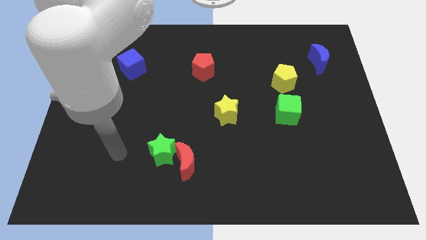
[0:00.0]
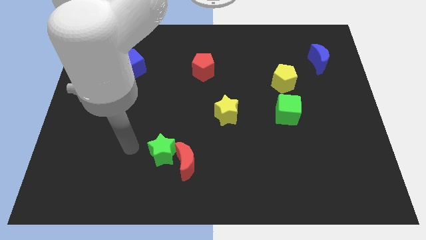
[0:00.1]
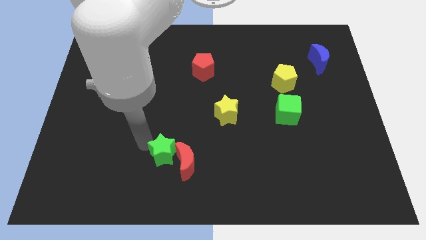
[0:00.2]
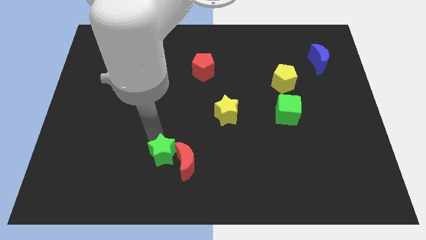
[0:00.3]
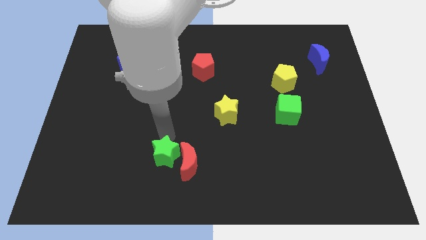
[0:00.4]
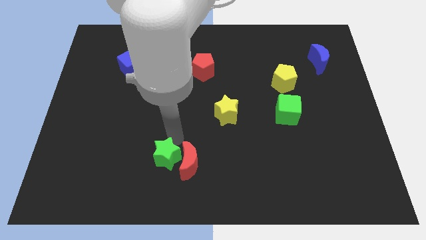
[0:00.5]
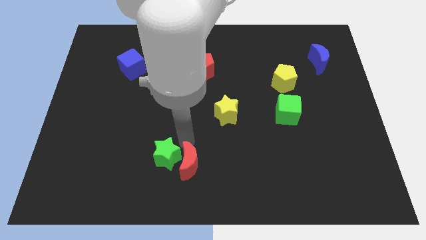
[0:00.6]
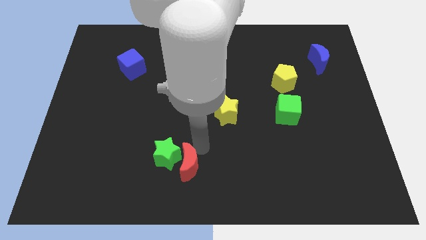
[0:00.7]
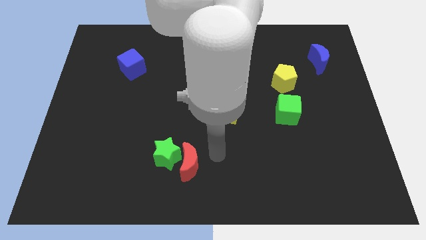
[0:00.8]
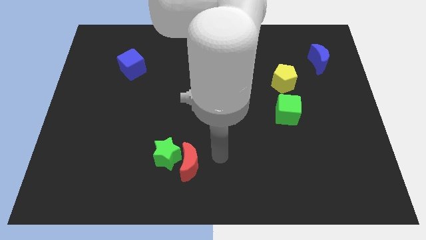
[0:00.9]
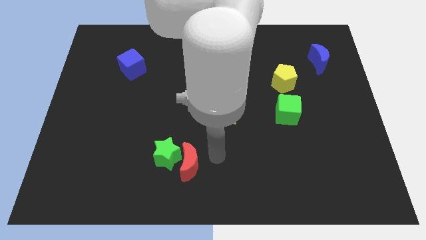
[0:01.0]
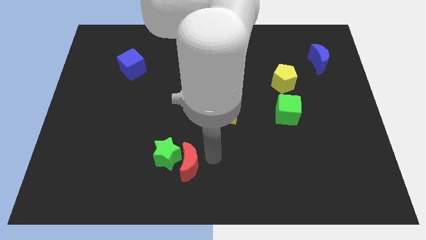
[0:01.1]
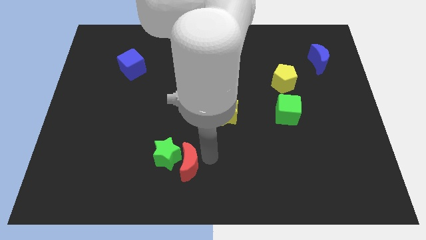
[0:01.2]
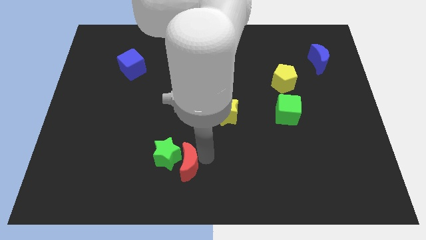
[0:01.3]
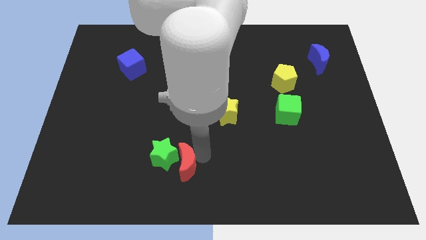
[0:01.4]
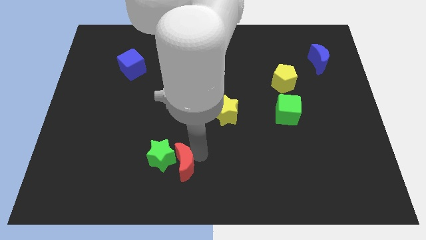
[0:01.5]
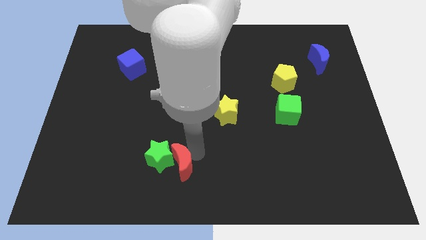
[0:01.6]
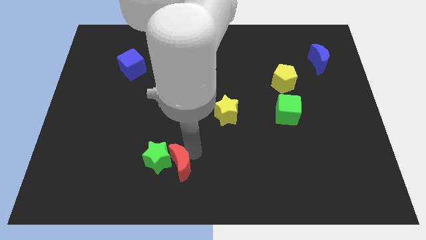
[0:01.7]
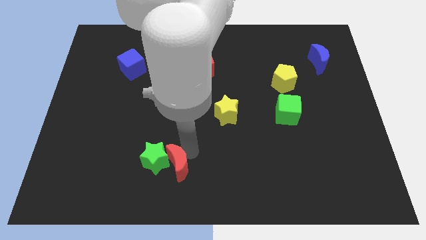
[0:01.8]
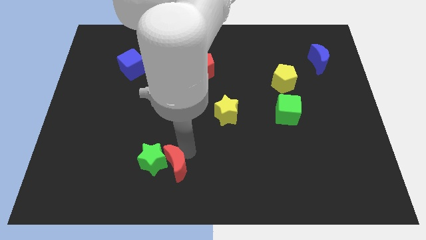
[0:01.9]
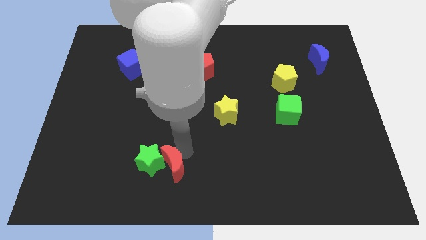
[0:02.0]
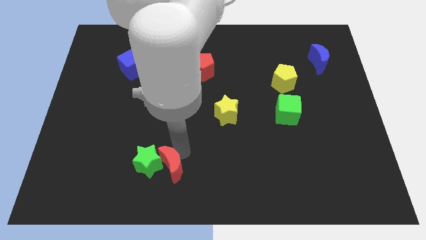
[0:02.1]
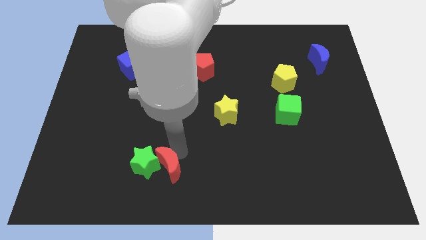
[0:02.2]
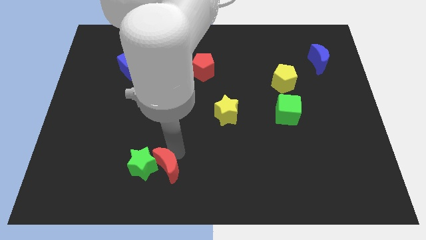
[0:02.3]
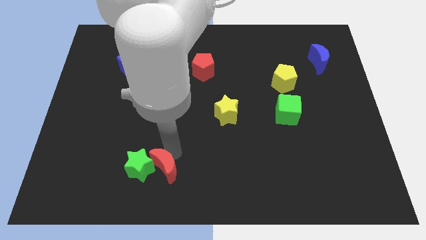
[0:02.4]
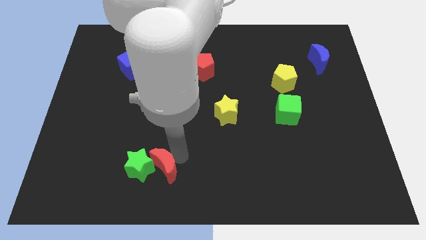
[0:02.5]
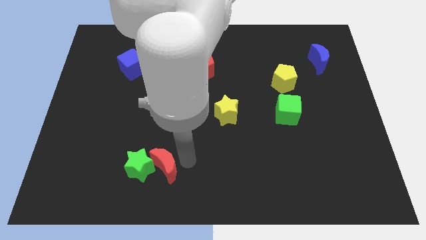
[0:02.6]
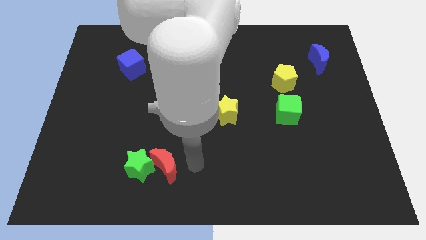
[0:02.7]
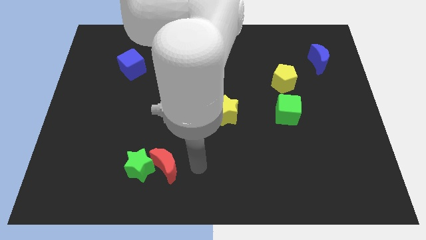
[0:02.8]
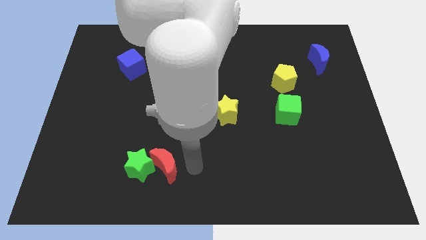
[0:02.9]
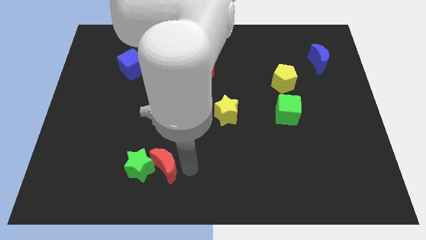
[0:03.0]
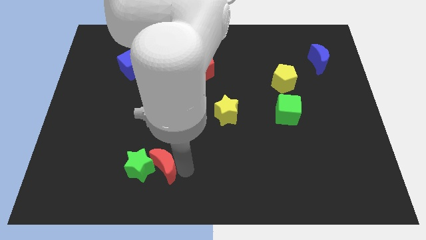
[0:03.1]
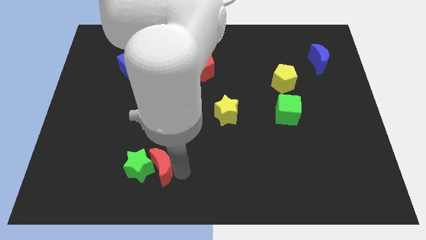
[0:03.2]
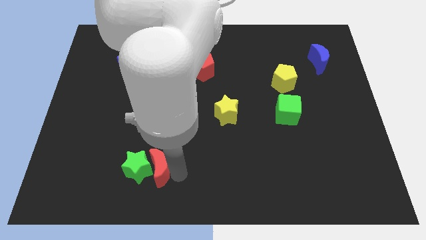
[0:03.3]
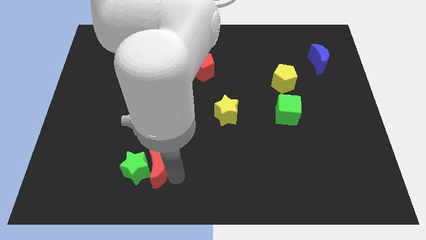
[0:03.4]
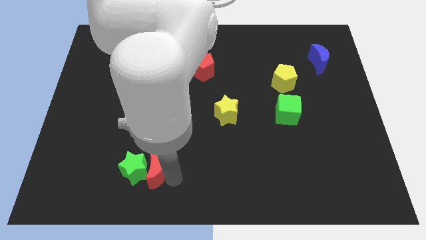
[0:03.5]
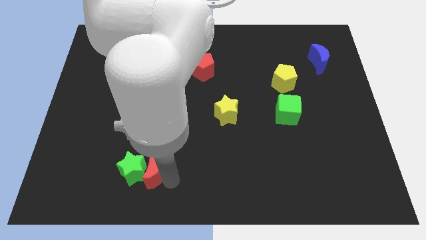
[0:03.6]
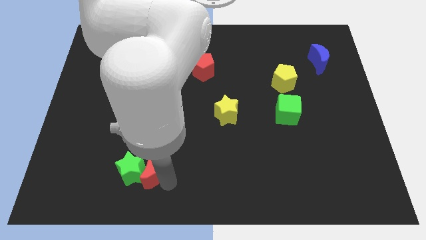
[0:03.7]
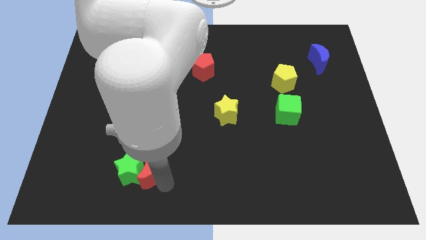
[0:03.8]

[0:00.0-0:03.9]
push the red moon left slightly

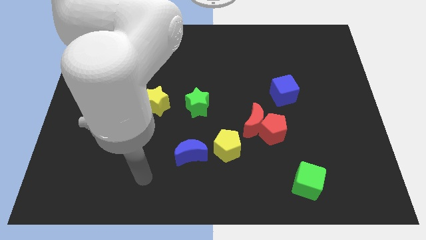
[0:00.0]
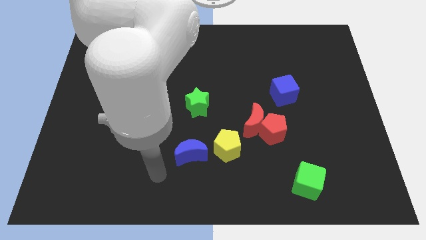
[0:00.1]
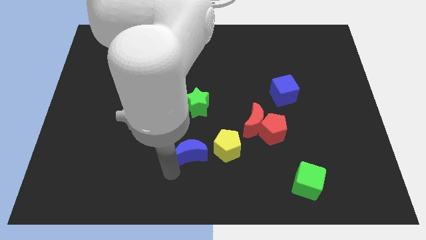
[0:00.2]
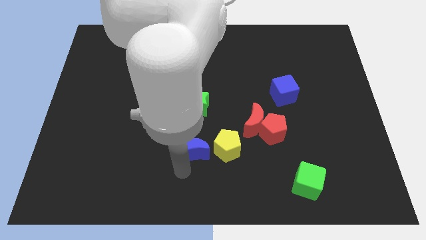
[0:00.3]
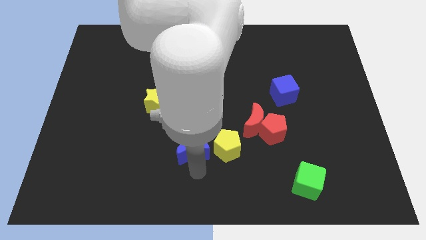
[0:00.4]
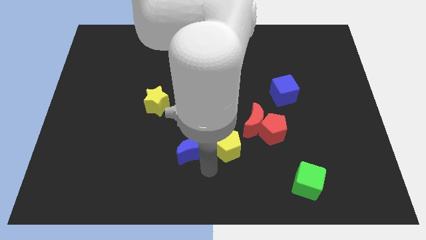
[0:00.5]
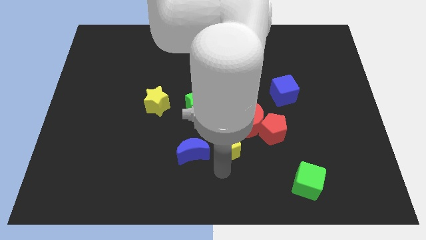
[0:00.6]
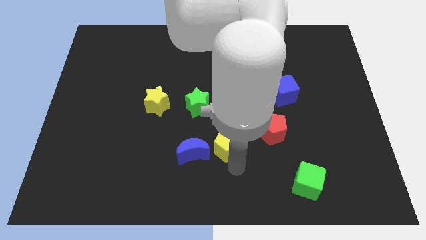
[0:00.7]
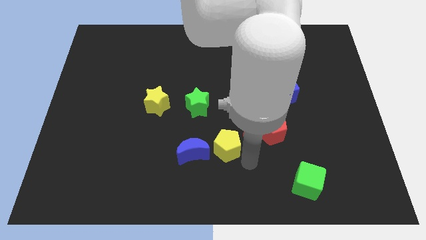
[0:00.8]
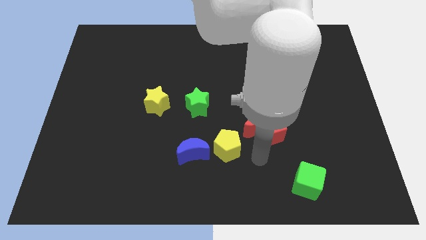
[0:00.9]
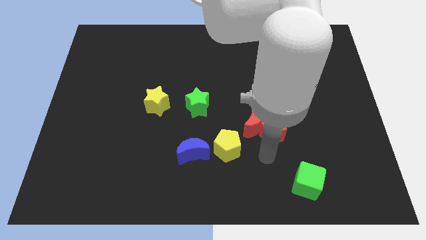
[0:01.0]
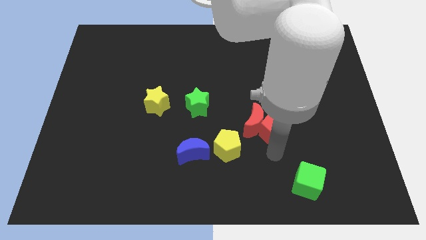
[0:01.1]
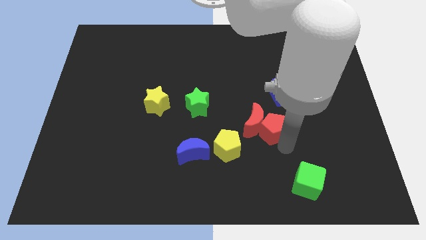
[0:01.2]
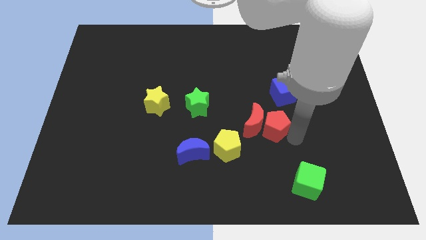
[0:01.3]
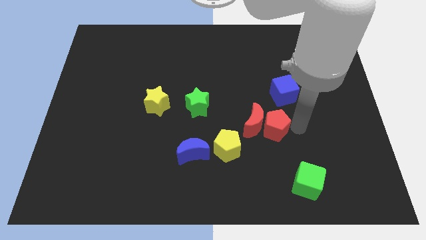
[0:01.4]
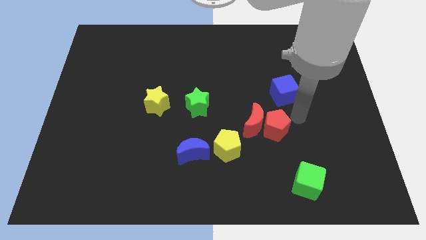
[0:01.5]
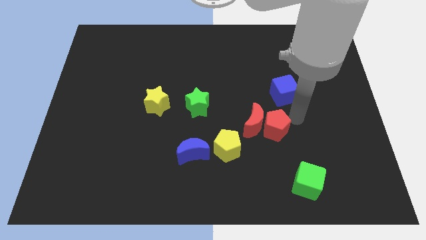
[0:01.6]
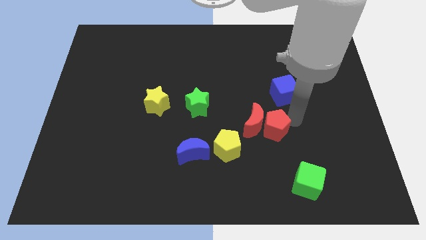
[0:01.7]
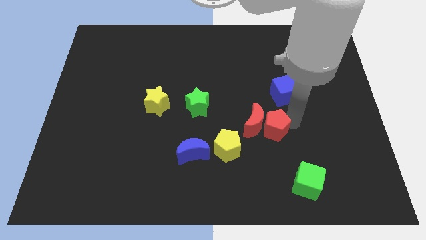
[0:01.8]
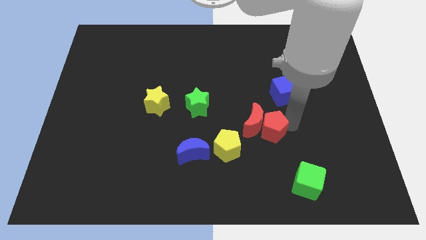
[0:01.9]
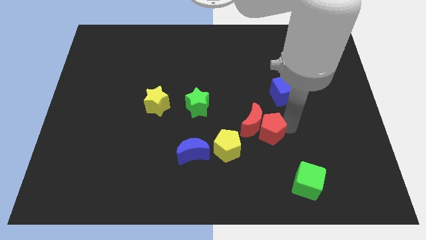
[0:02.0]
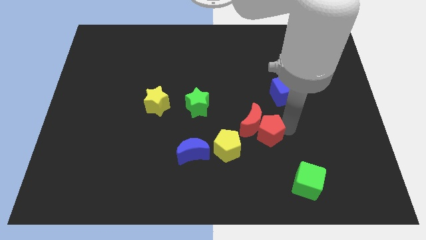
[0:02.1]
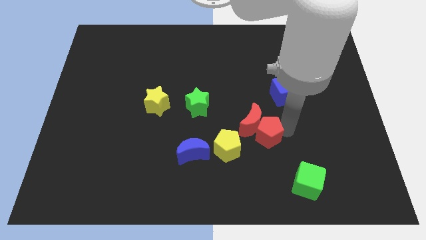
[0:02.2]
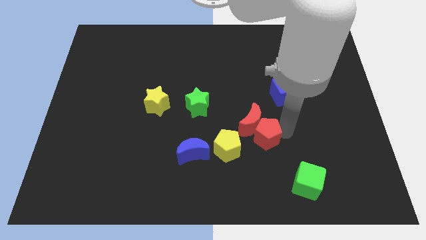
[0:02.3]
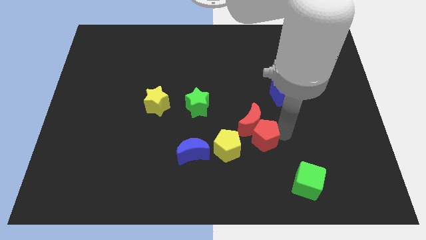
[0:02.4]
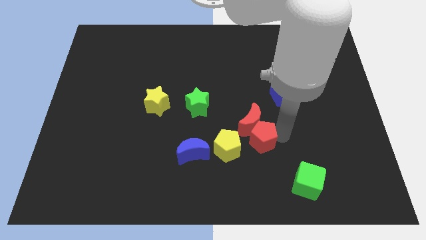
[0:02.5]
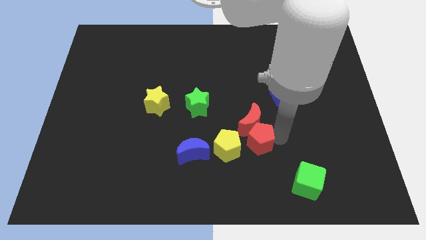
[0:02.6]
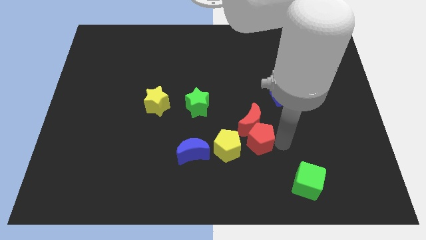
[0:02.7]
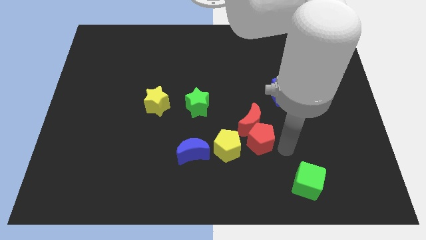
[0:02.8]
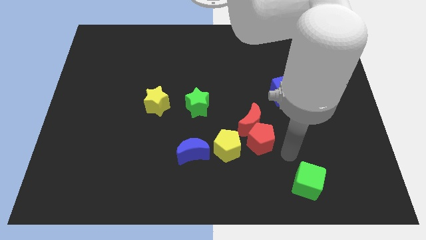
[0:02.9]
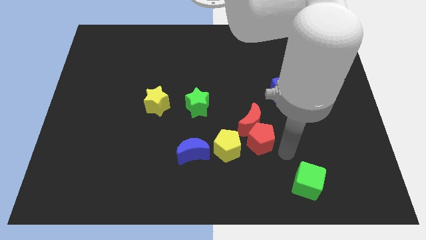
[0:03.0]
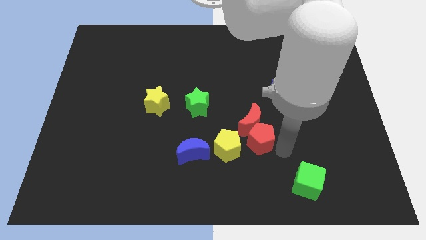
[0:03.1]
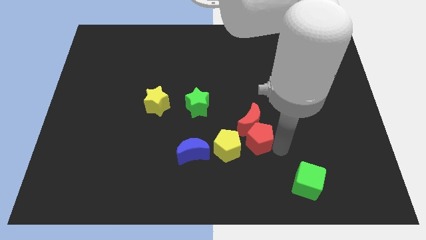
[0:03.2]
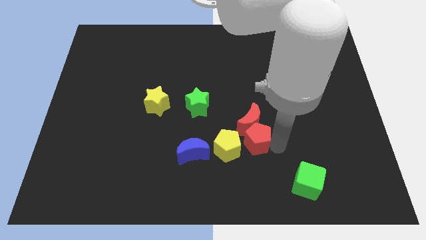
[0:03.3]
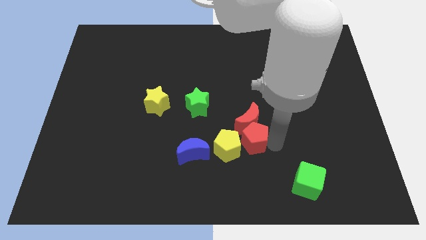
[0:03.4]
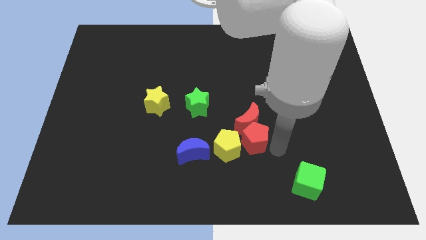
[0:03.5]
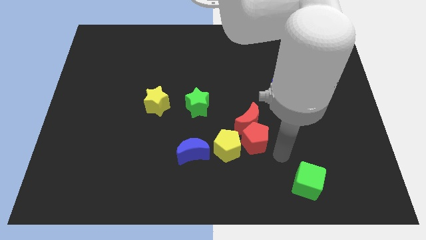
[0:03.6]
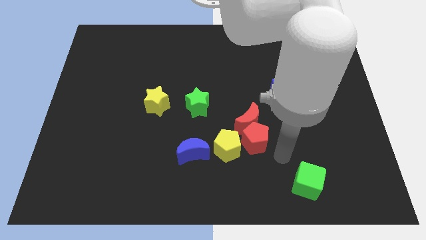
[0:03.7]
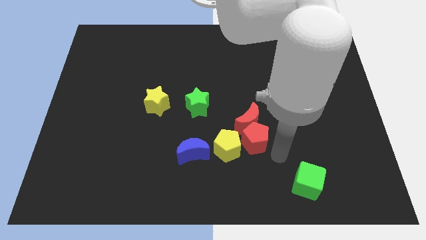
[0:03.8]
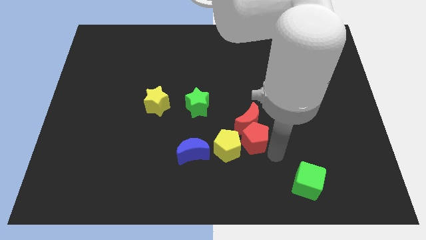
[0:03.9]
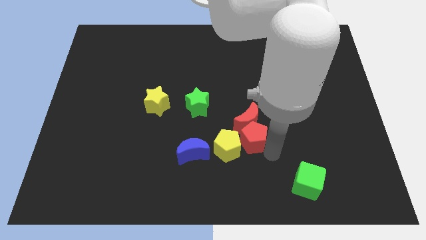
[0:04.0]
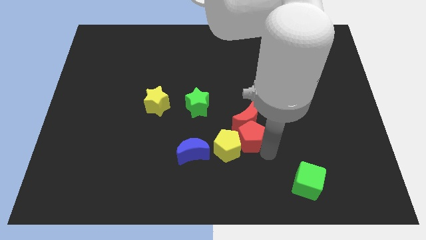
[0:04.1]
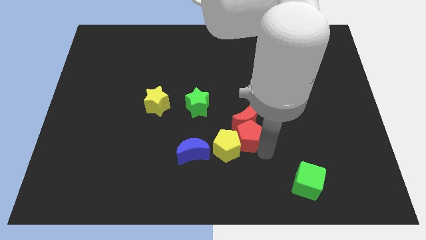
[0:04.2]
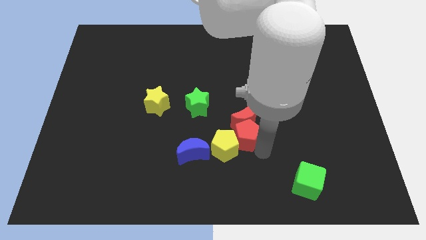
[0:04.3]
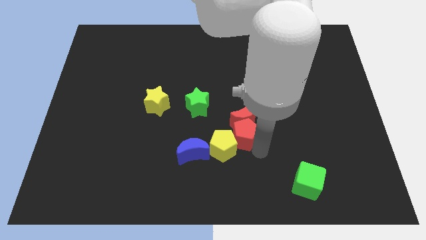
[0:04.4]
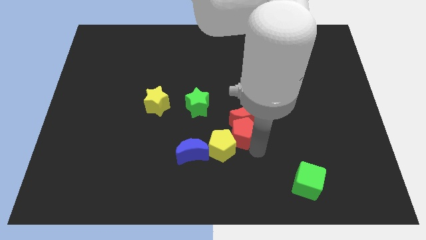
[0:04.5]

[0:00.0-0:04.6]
slightly push the red pentagon to the left
